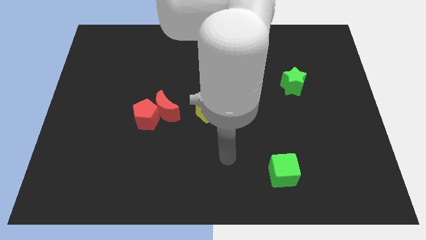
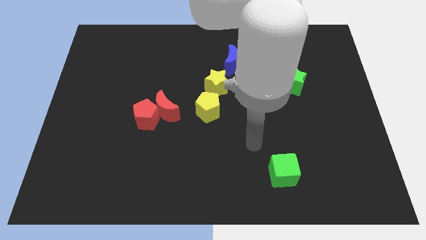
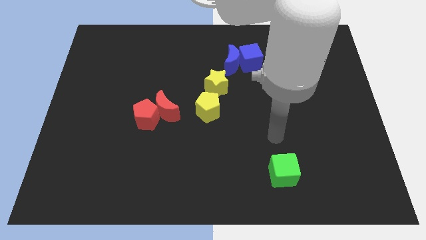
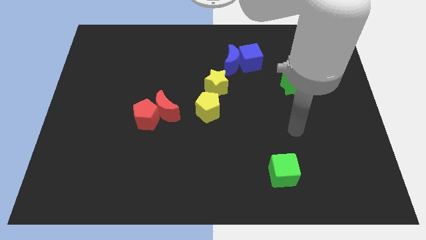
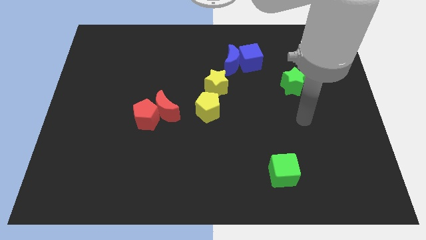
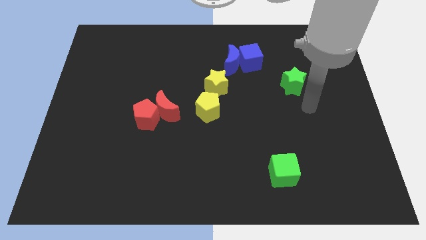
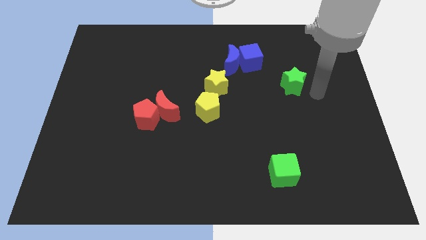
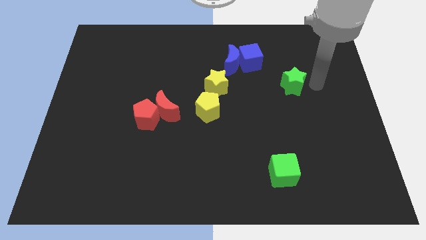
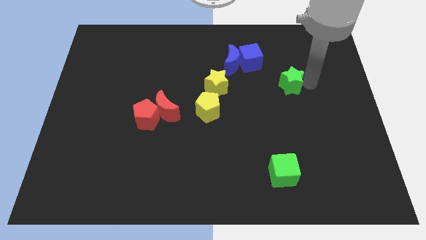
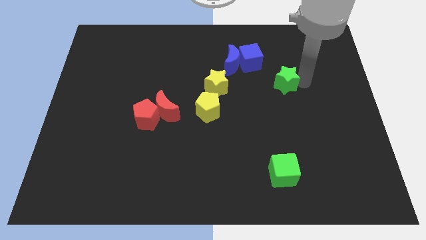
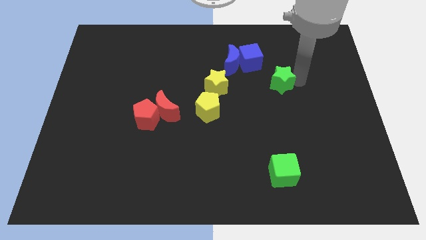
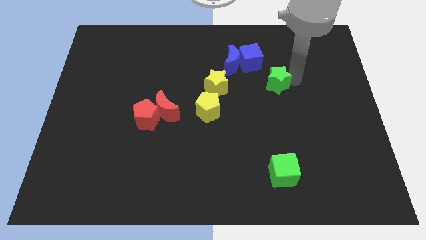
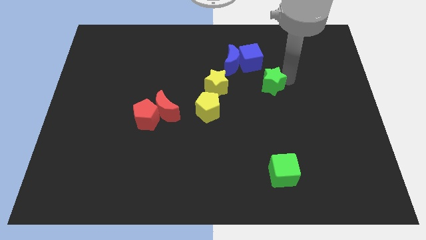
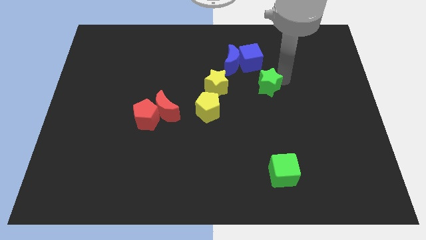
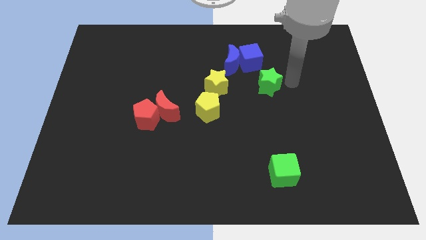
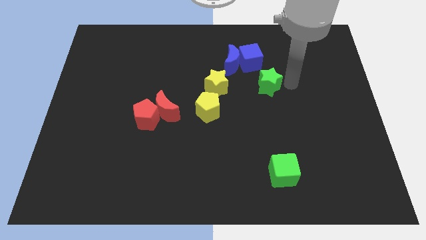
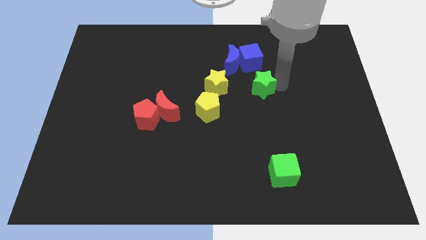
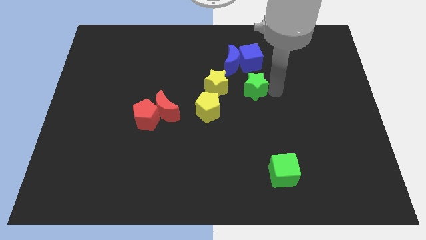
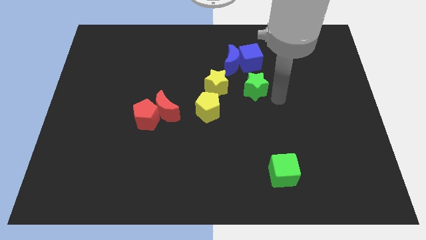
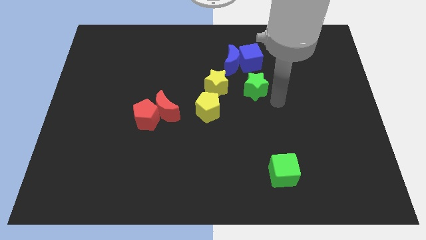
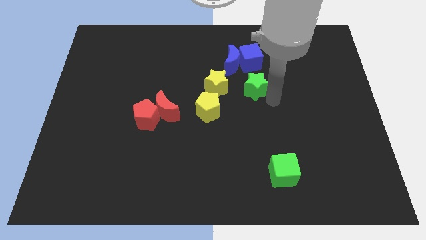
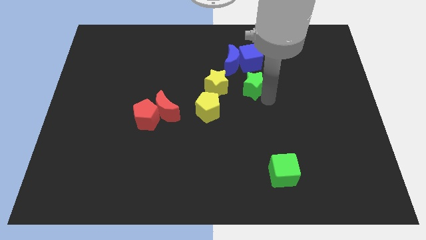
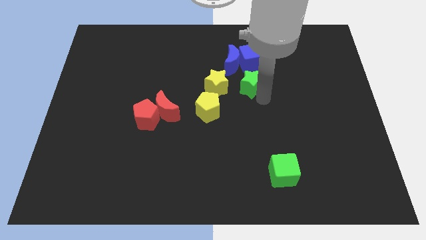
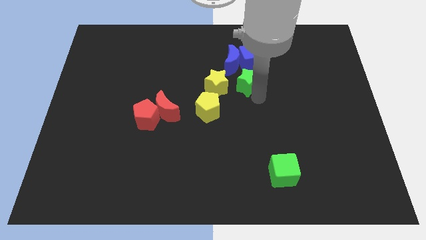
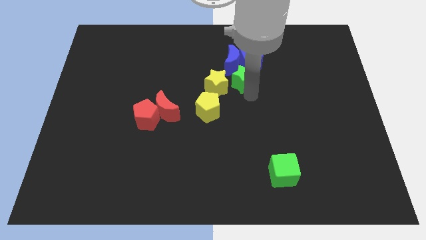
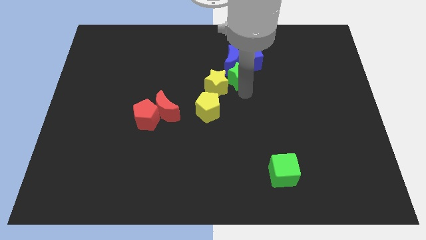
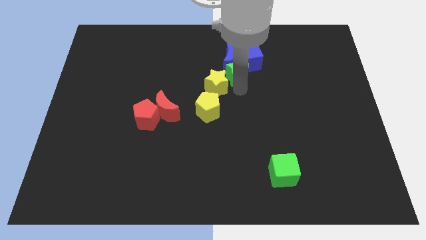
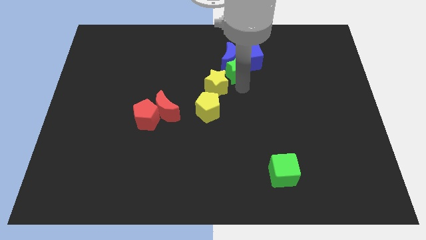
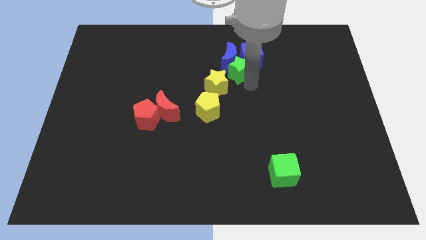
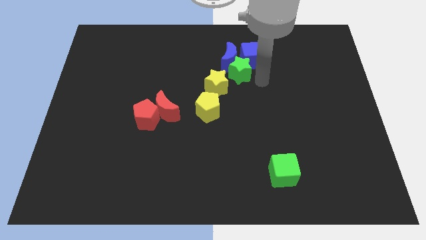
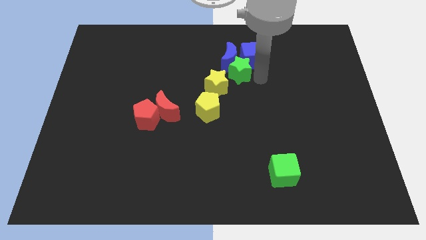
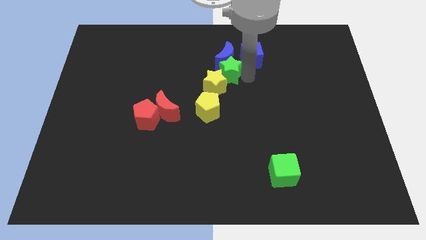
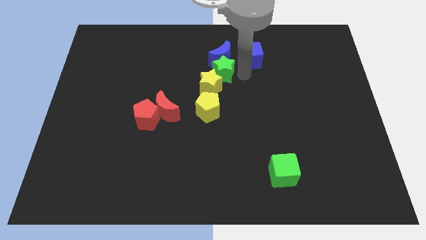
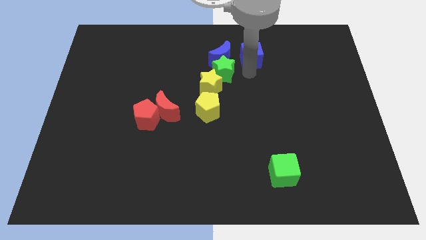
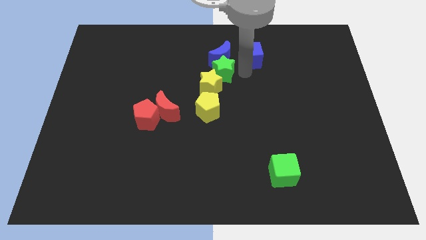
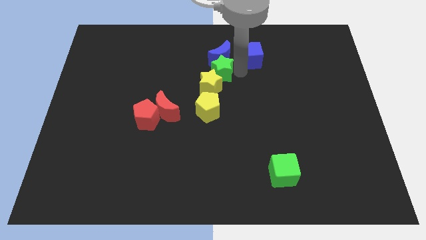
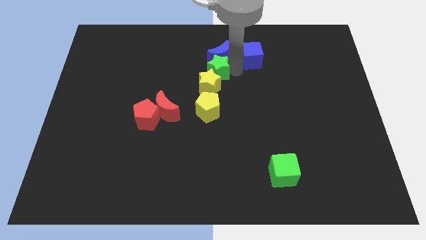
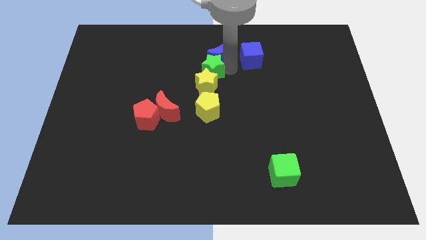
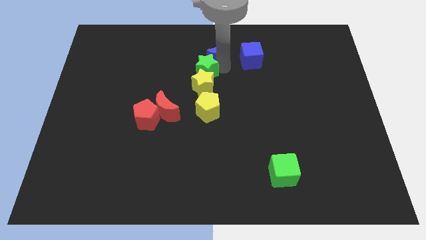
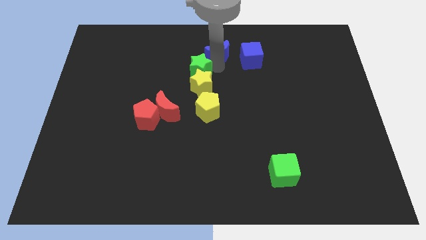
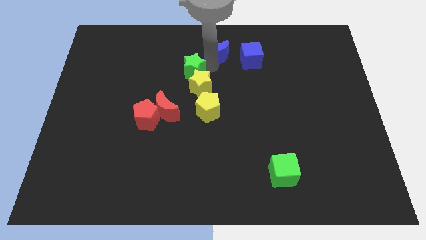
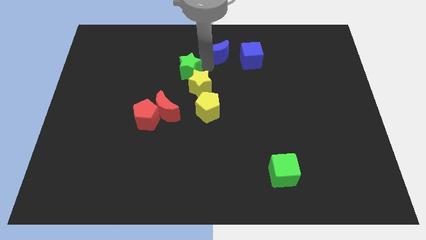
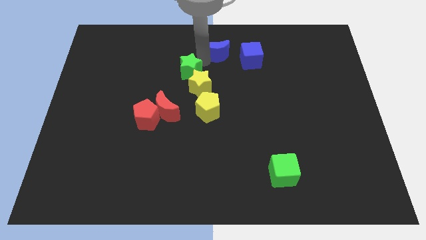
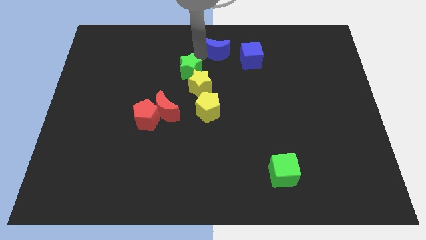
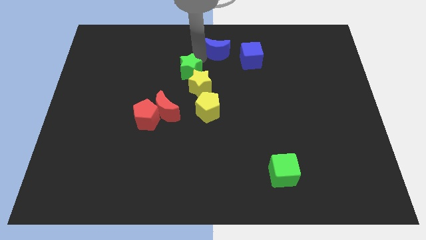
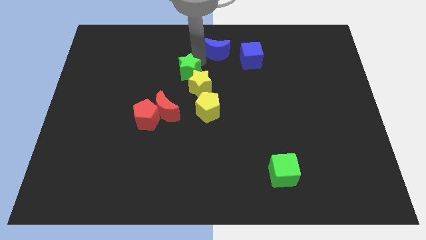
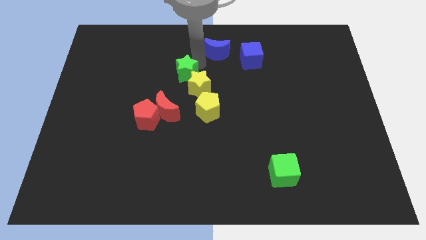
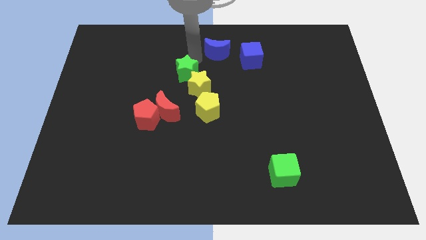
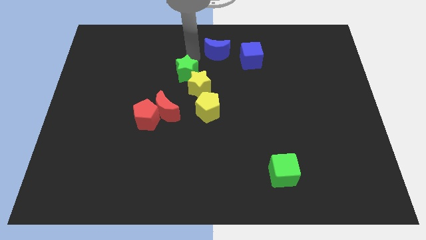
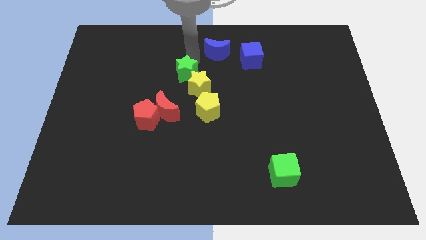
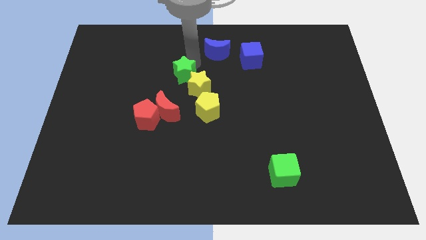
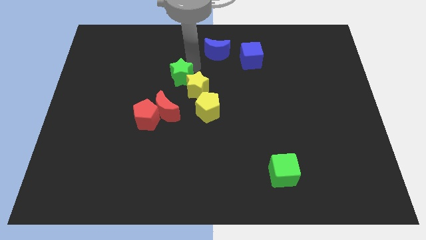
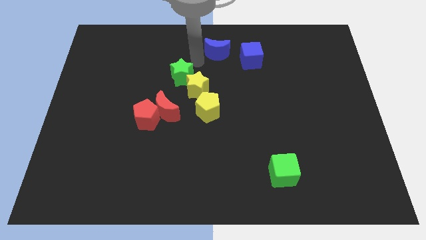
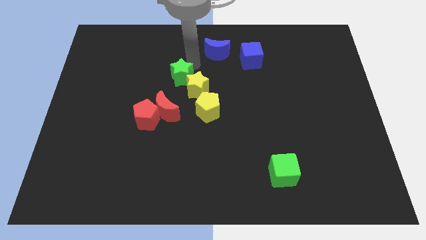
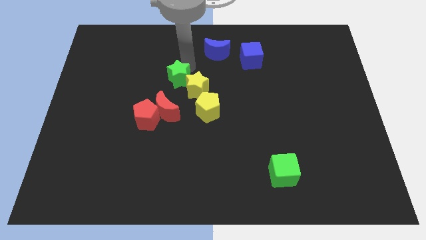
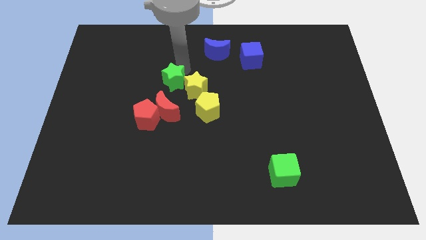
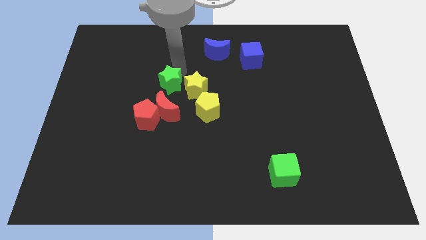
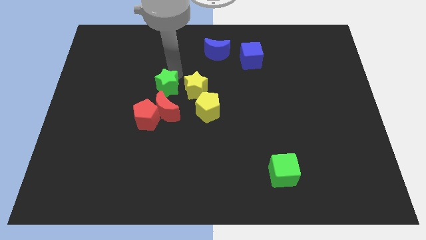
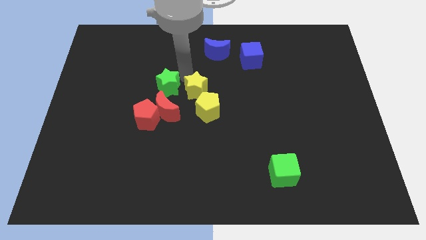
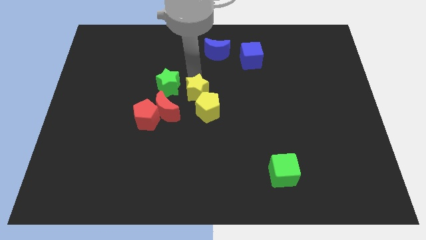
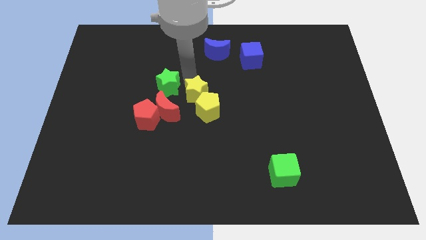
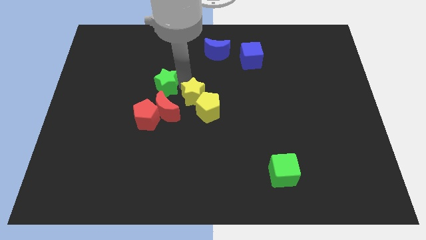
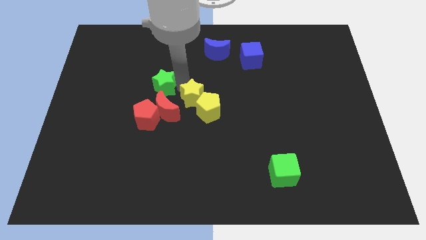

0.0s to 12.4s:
put the green star to the top left of the red moon
